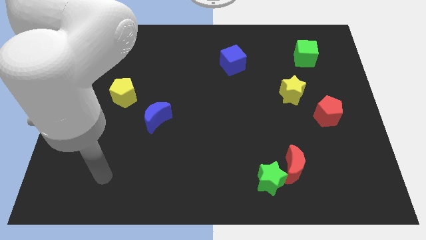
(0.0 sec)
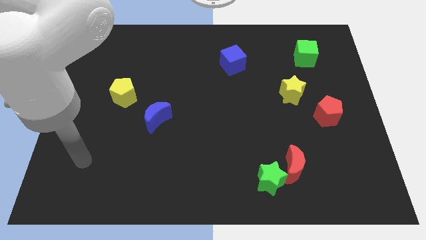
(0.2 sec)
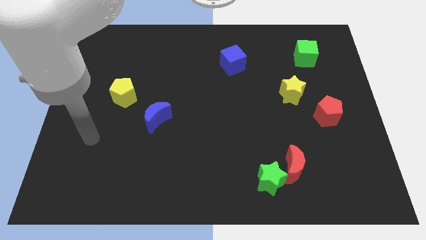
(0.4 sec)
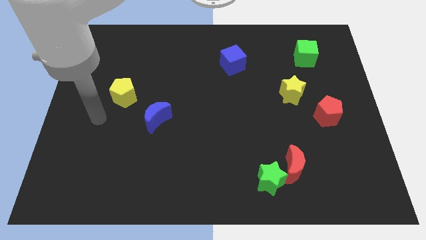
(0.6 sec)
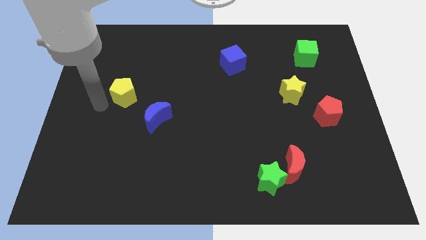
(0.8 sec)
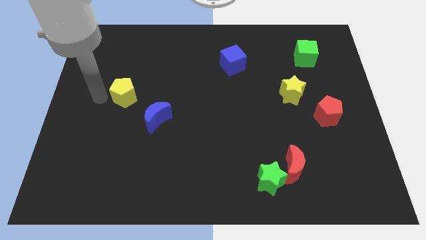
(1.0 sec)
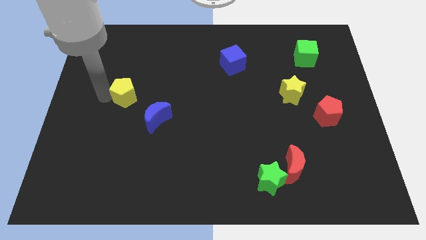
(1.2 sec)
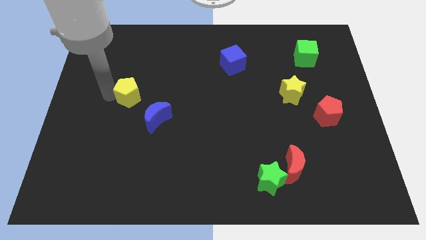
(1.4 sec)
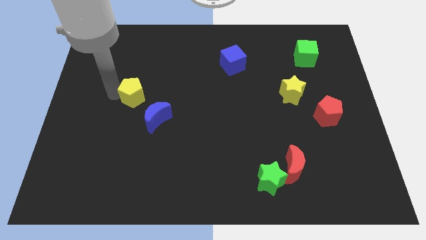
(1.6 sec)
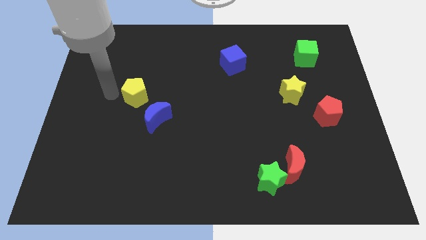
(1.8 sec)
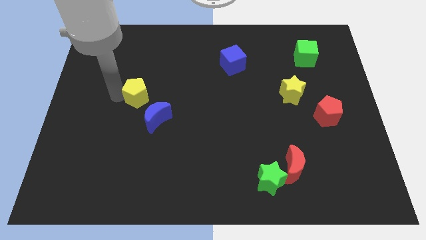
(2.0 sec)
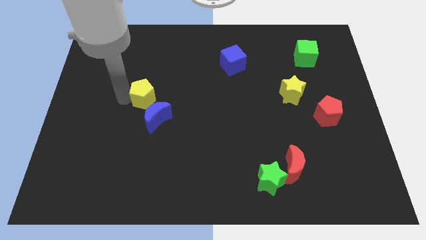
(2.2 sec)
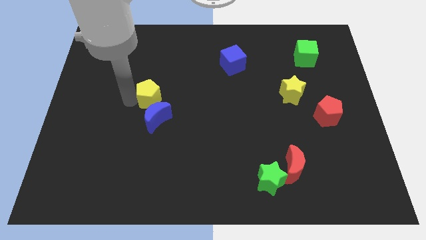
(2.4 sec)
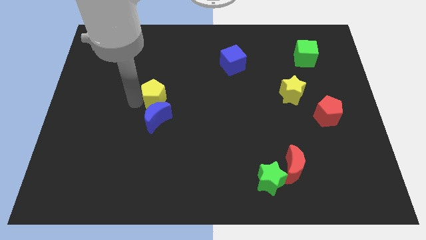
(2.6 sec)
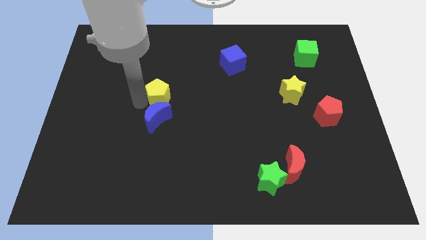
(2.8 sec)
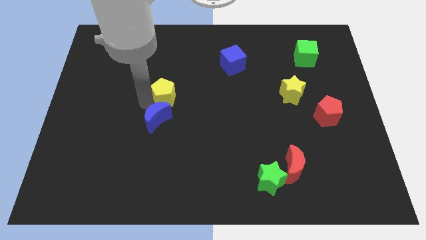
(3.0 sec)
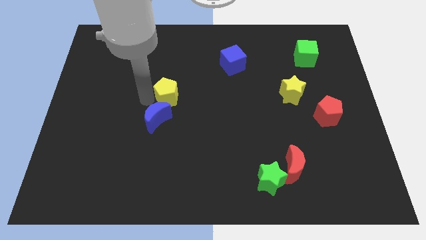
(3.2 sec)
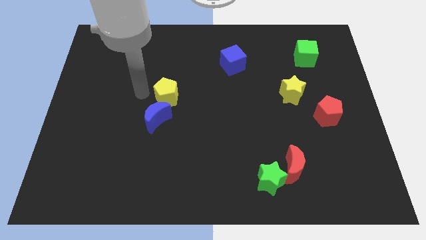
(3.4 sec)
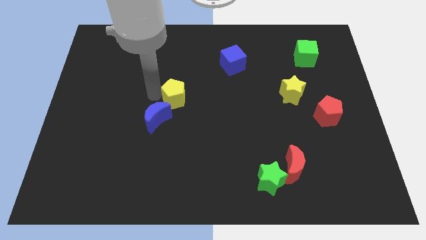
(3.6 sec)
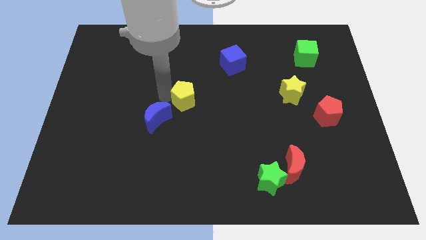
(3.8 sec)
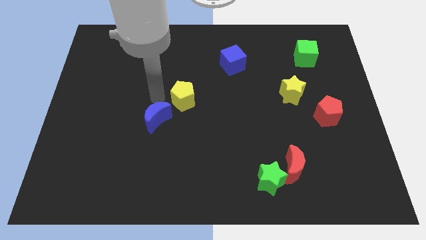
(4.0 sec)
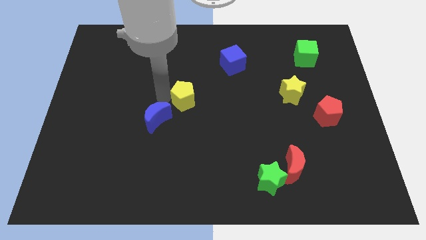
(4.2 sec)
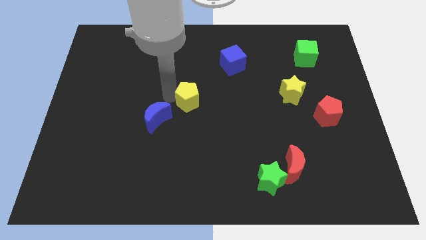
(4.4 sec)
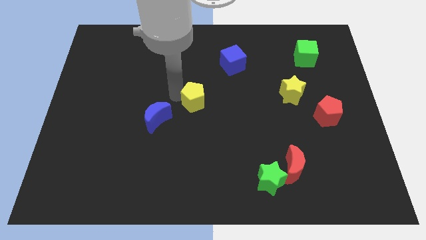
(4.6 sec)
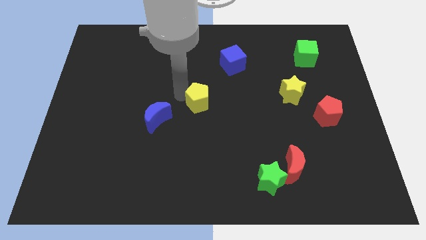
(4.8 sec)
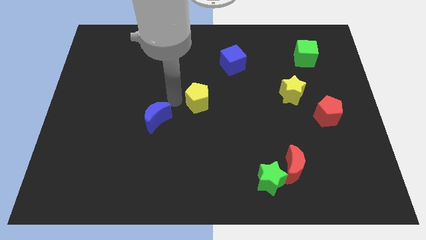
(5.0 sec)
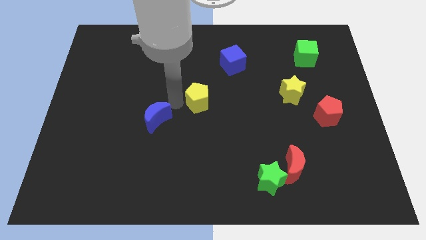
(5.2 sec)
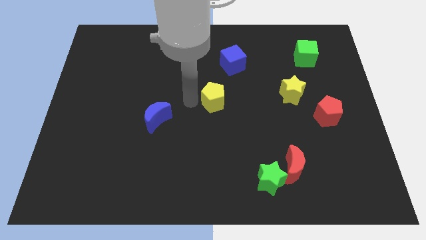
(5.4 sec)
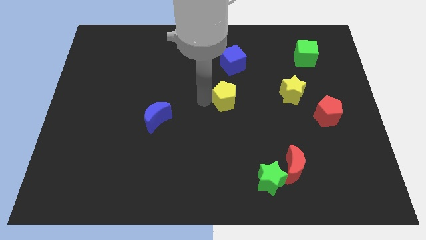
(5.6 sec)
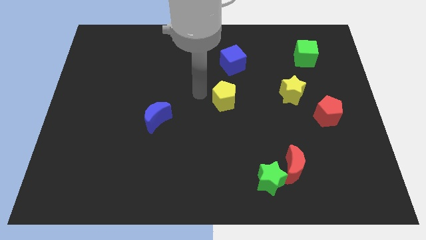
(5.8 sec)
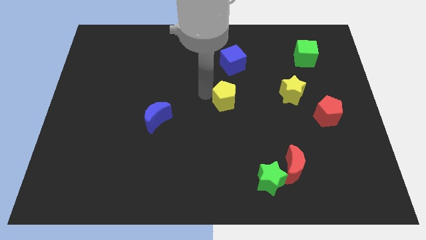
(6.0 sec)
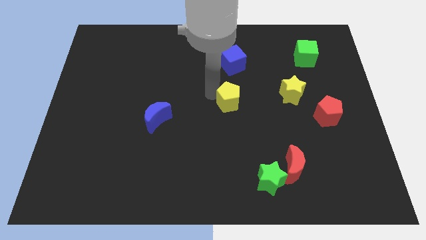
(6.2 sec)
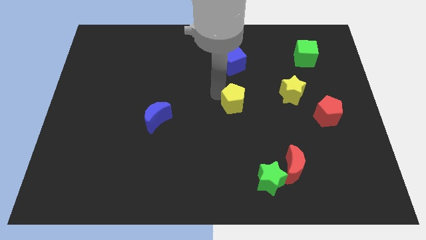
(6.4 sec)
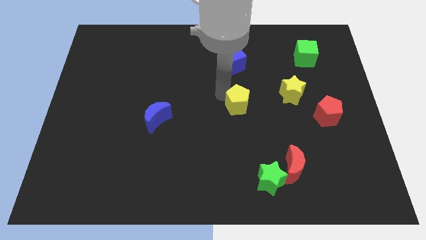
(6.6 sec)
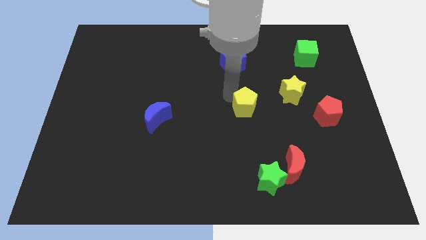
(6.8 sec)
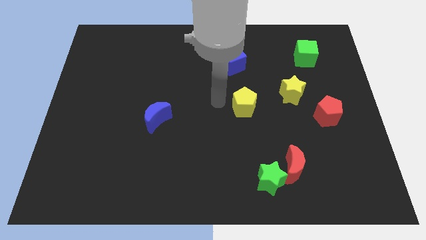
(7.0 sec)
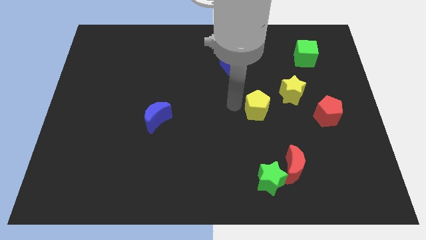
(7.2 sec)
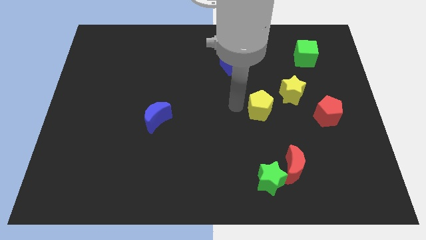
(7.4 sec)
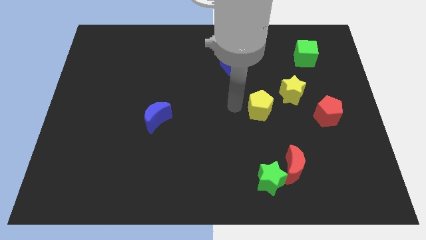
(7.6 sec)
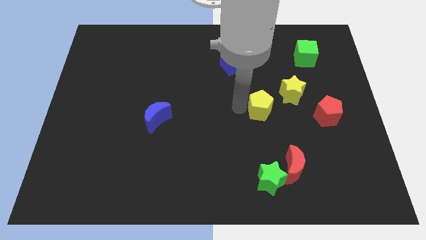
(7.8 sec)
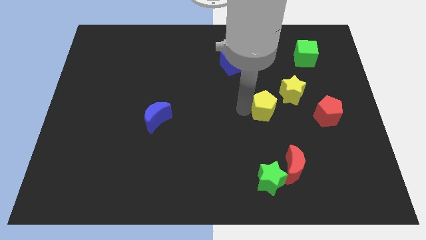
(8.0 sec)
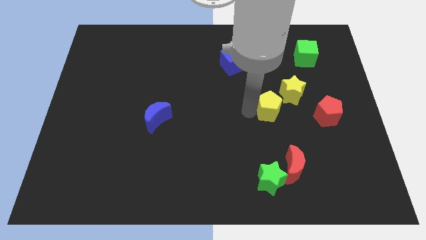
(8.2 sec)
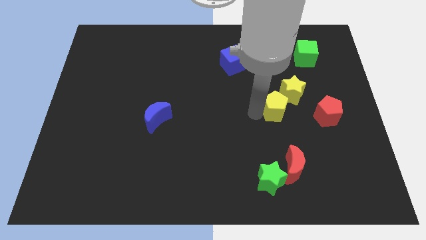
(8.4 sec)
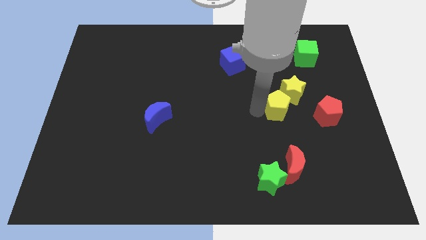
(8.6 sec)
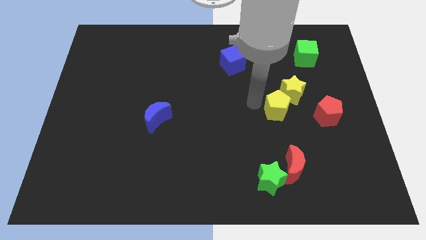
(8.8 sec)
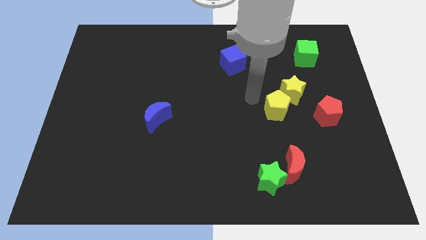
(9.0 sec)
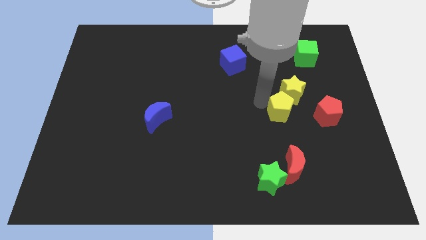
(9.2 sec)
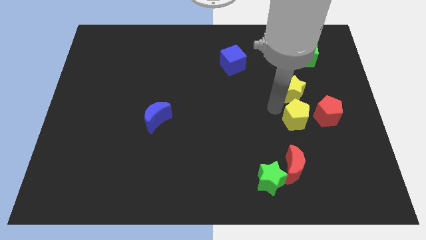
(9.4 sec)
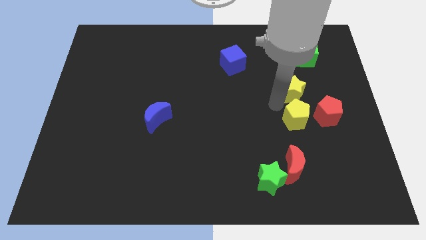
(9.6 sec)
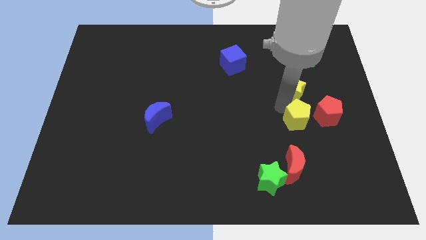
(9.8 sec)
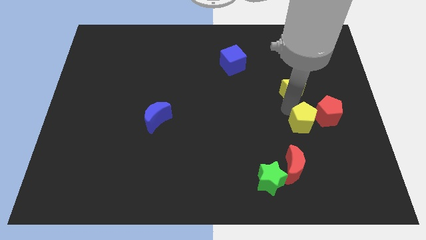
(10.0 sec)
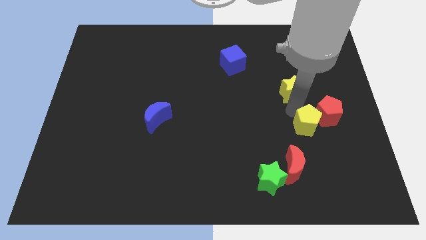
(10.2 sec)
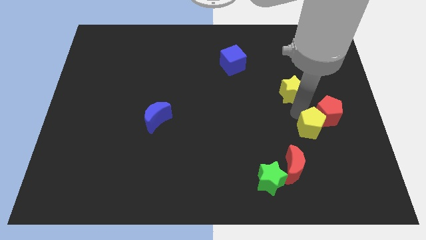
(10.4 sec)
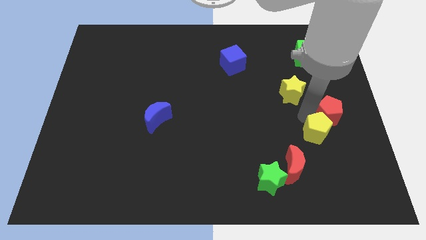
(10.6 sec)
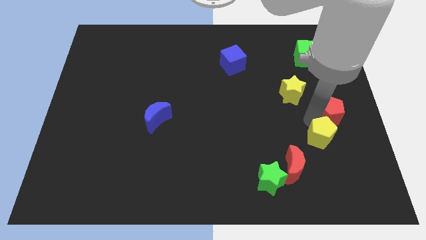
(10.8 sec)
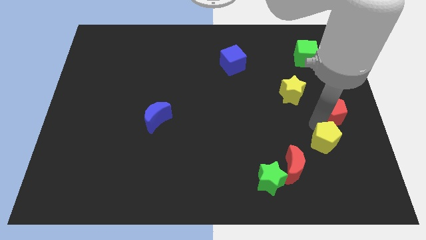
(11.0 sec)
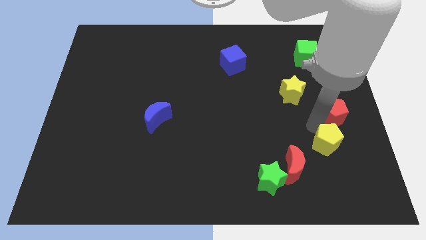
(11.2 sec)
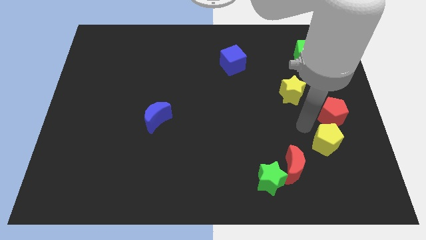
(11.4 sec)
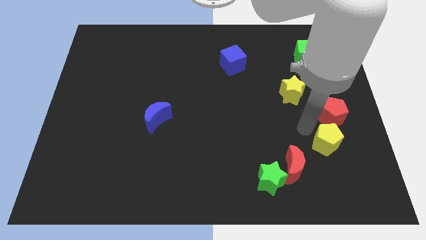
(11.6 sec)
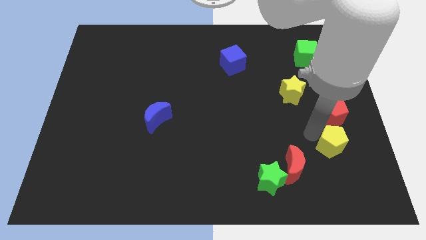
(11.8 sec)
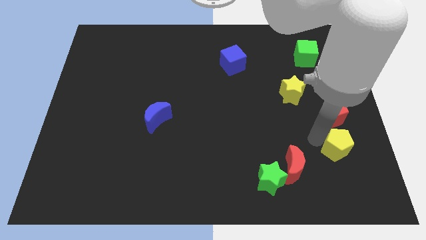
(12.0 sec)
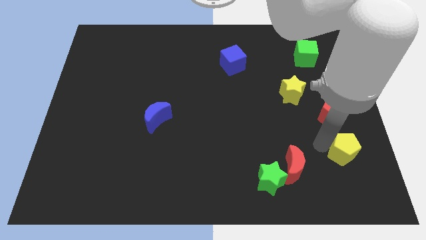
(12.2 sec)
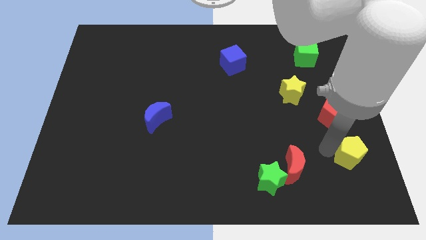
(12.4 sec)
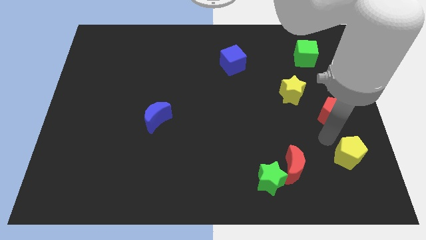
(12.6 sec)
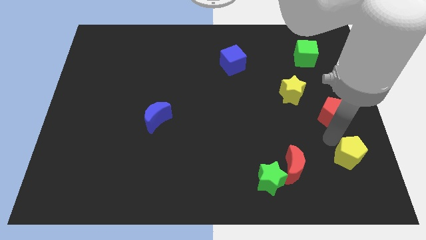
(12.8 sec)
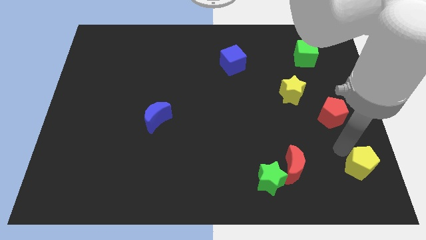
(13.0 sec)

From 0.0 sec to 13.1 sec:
put the yellow pentagon to the bottom right of the board
